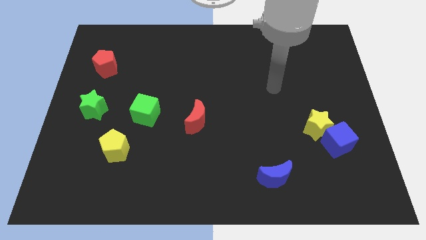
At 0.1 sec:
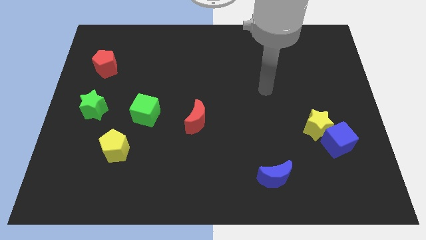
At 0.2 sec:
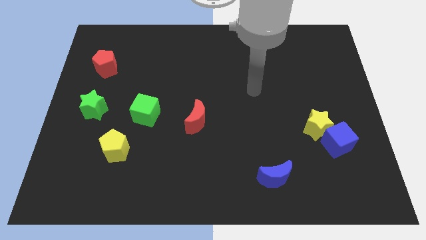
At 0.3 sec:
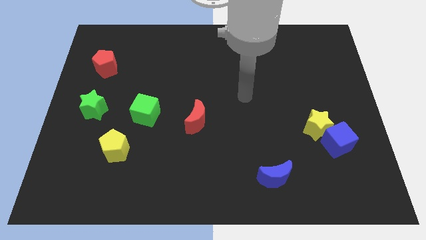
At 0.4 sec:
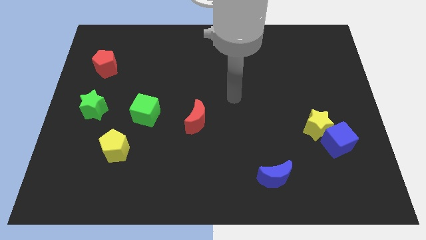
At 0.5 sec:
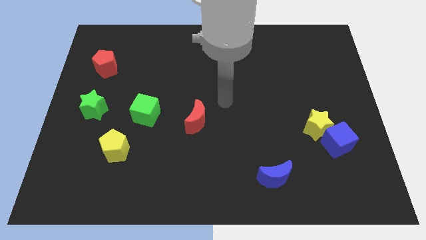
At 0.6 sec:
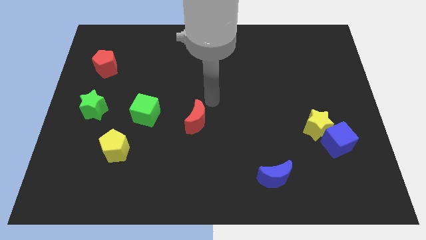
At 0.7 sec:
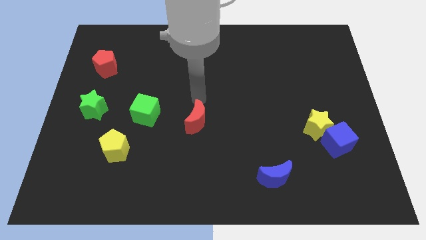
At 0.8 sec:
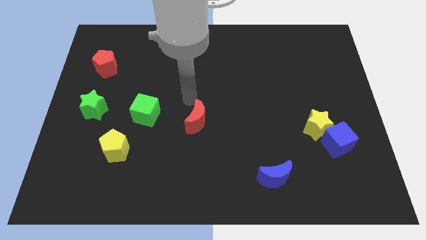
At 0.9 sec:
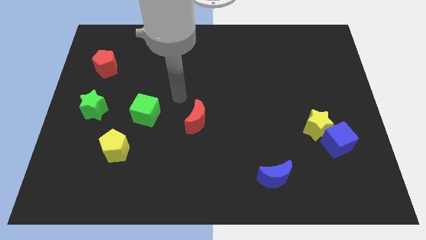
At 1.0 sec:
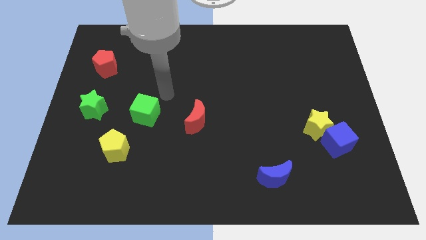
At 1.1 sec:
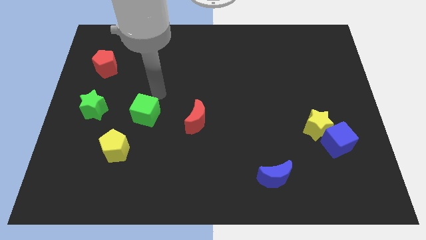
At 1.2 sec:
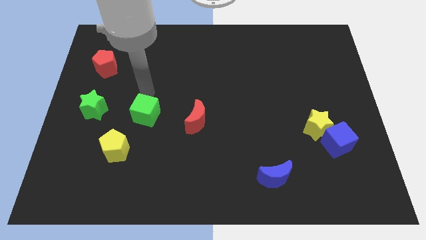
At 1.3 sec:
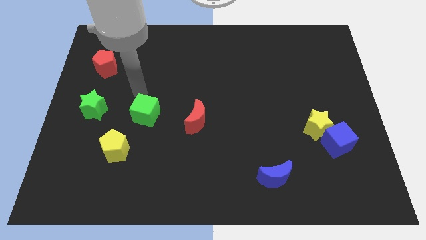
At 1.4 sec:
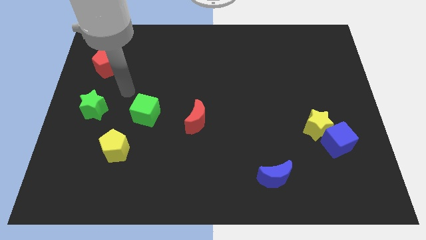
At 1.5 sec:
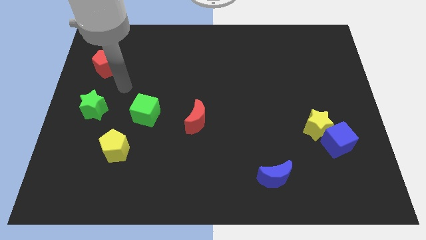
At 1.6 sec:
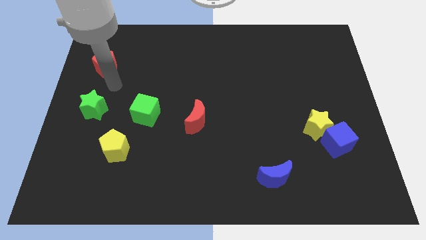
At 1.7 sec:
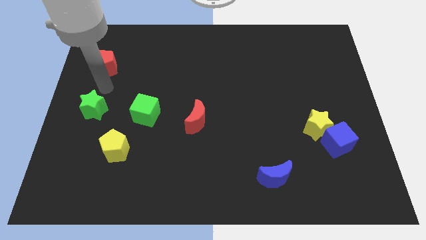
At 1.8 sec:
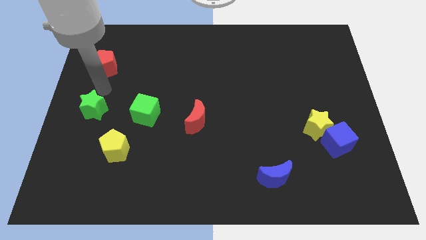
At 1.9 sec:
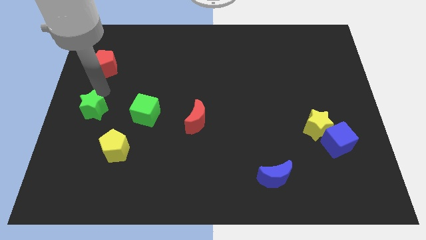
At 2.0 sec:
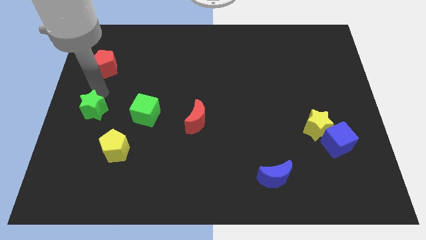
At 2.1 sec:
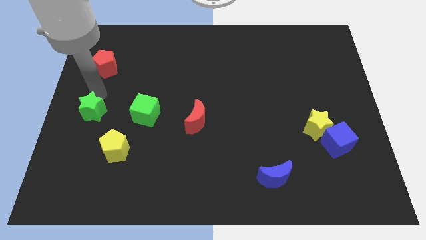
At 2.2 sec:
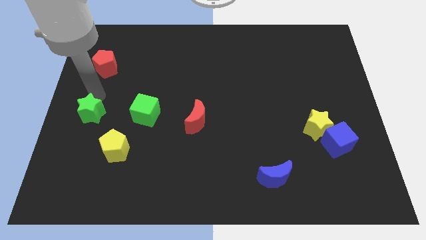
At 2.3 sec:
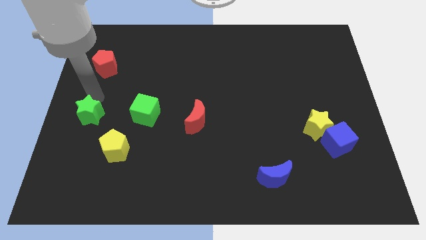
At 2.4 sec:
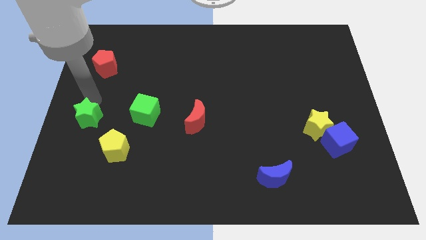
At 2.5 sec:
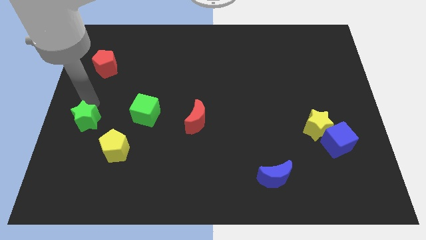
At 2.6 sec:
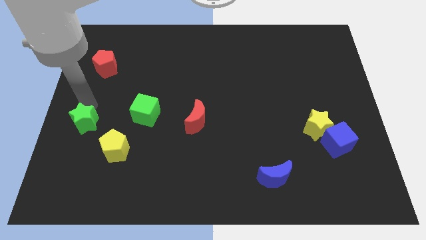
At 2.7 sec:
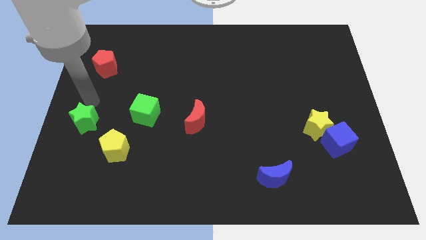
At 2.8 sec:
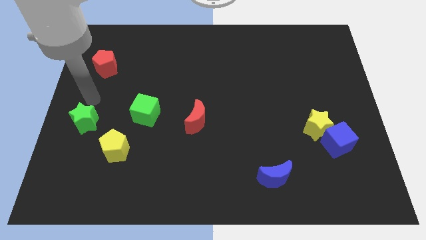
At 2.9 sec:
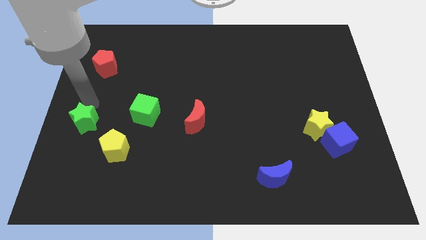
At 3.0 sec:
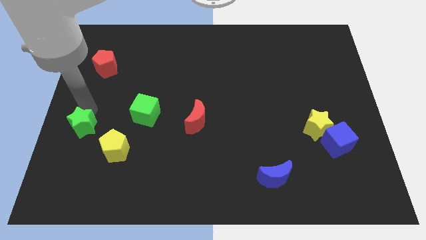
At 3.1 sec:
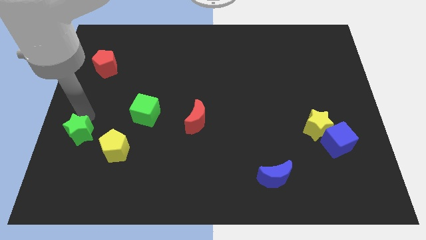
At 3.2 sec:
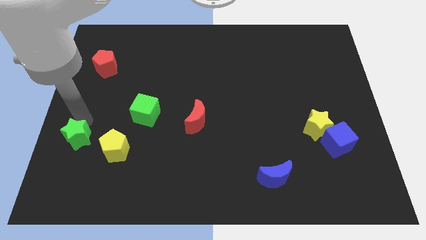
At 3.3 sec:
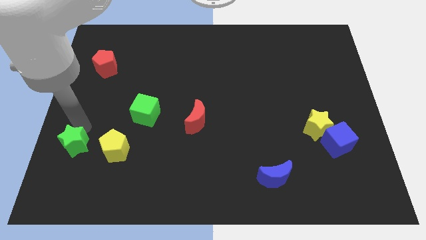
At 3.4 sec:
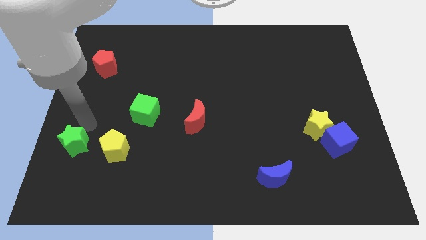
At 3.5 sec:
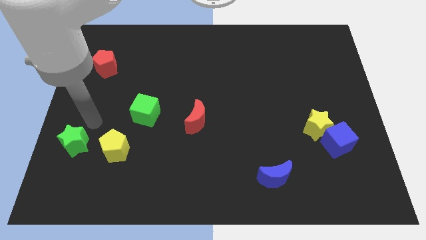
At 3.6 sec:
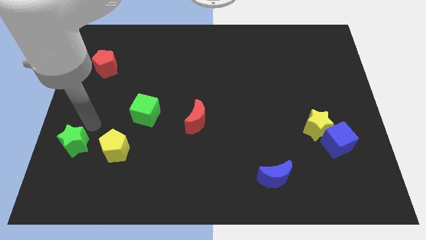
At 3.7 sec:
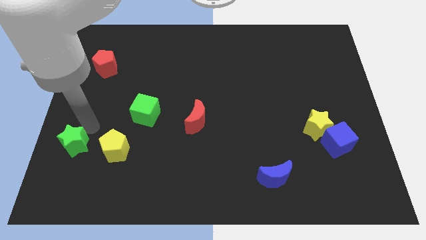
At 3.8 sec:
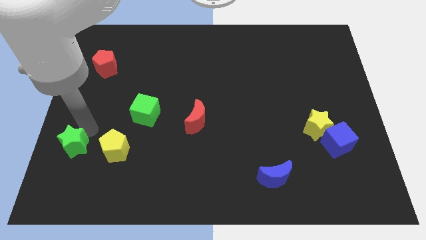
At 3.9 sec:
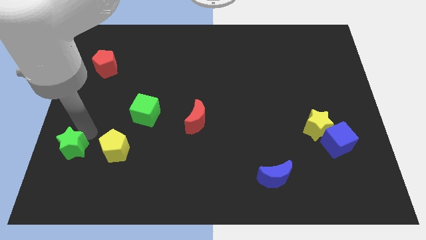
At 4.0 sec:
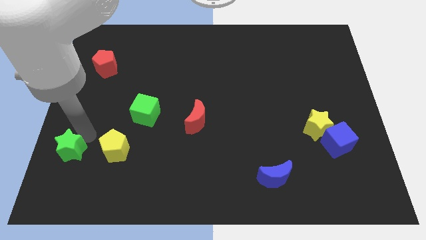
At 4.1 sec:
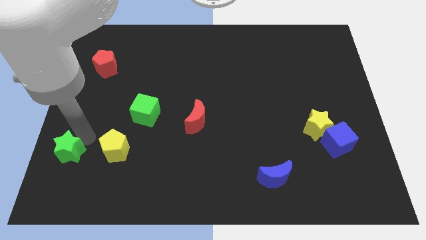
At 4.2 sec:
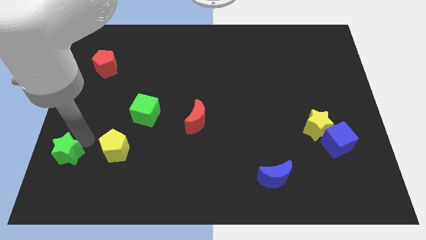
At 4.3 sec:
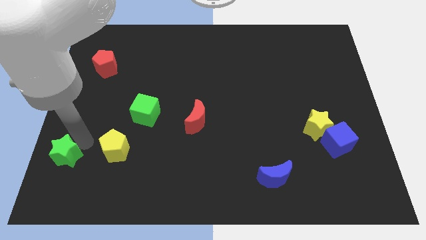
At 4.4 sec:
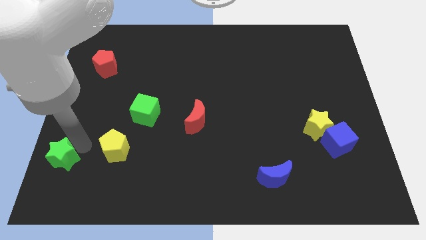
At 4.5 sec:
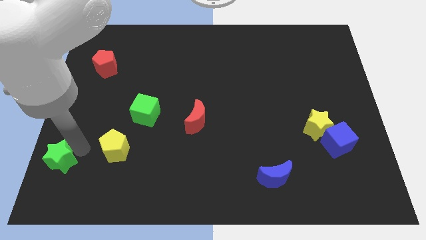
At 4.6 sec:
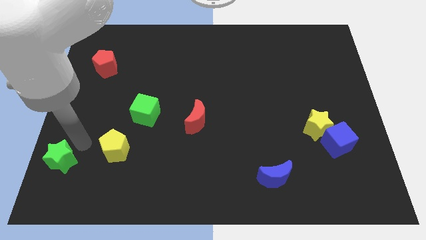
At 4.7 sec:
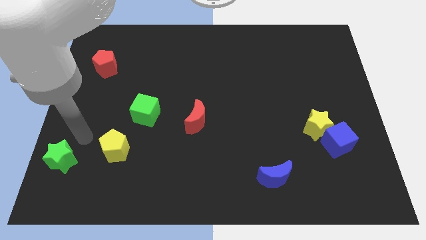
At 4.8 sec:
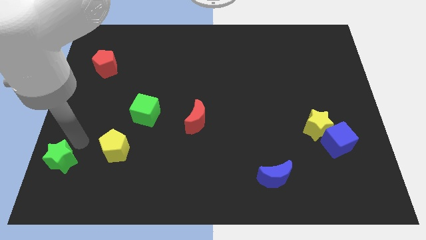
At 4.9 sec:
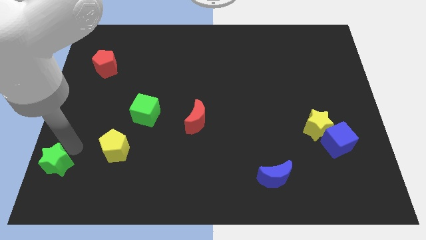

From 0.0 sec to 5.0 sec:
push the green star to the lower left corner

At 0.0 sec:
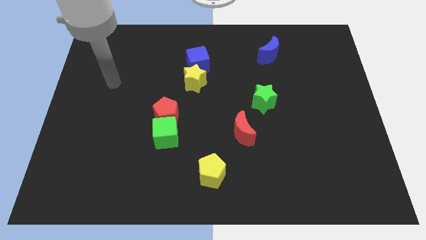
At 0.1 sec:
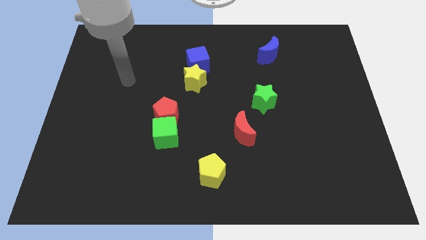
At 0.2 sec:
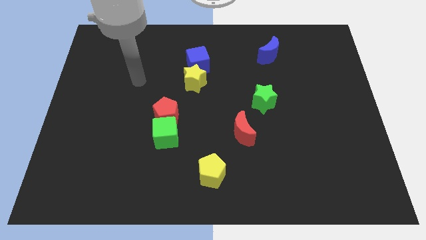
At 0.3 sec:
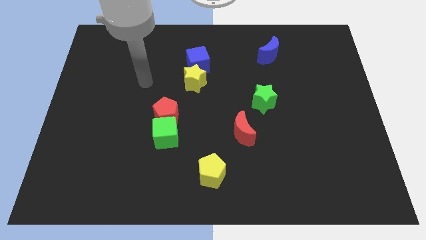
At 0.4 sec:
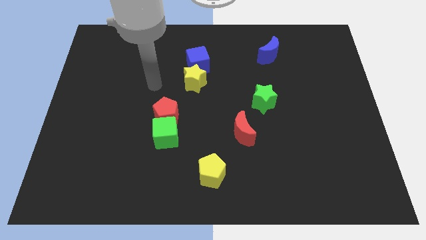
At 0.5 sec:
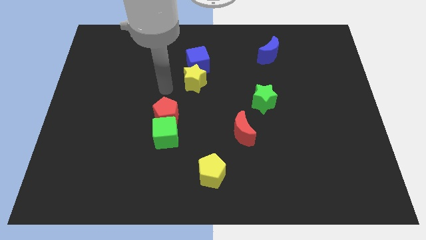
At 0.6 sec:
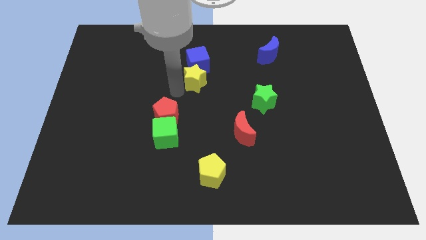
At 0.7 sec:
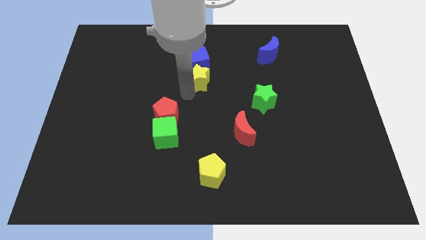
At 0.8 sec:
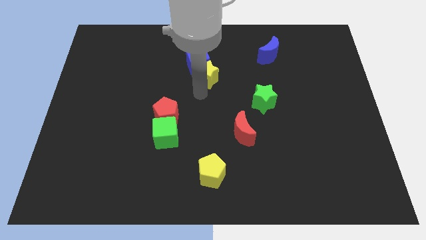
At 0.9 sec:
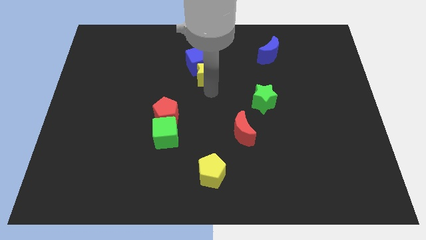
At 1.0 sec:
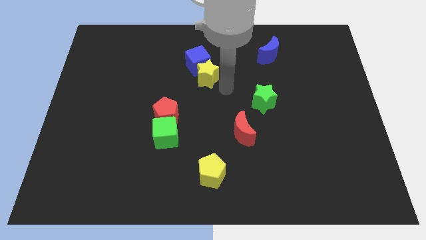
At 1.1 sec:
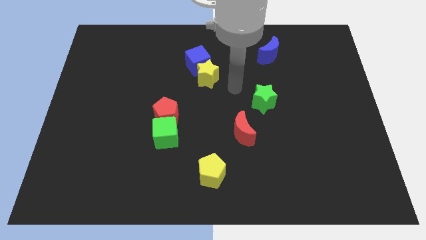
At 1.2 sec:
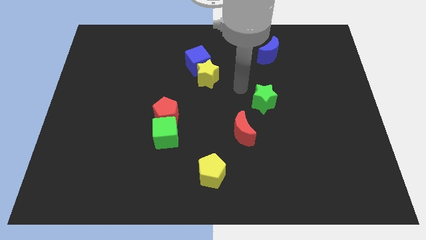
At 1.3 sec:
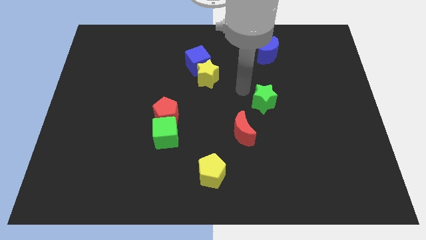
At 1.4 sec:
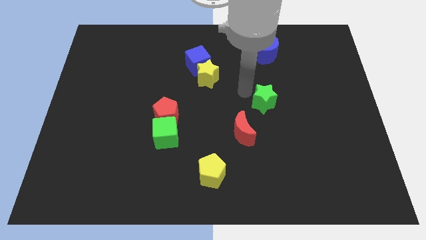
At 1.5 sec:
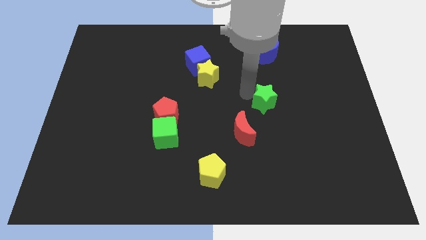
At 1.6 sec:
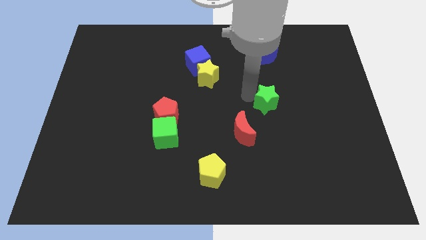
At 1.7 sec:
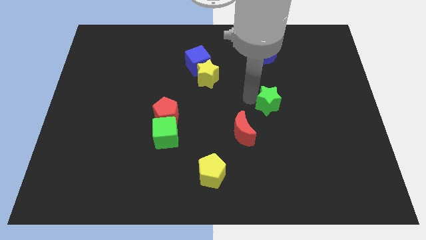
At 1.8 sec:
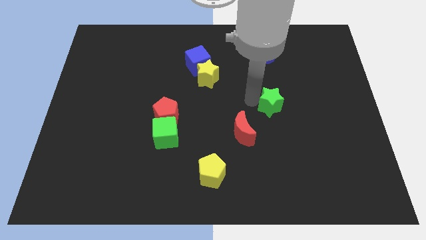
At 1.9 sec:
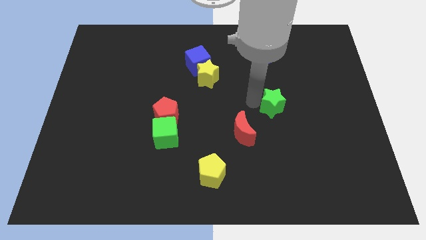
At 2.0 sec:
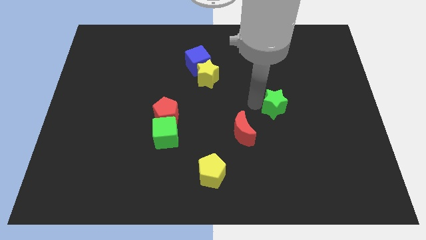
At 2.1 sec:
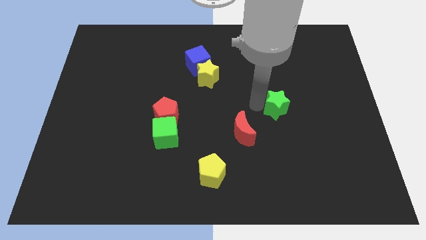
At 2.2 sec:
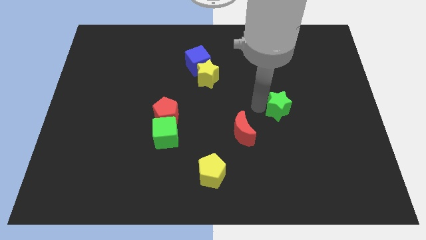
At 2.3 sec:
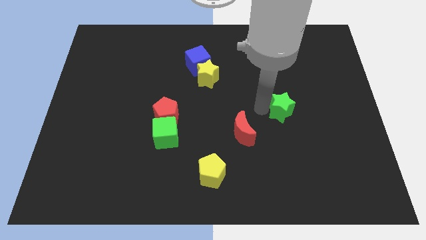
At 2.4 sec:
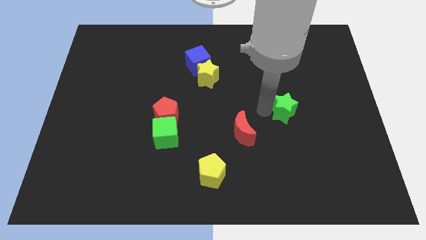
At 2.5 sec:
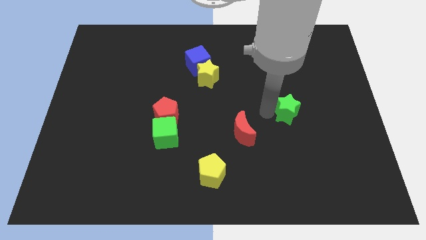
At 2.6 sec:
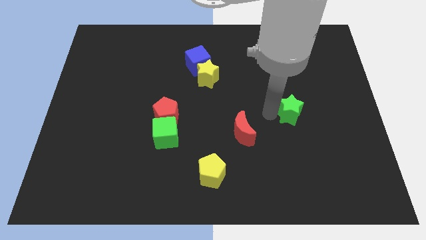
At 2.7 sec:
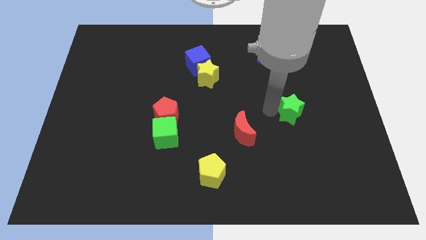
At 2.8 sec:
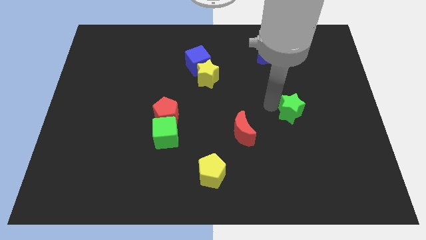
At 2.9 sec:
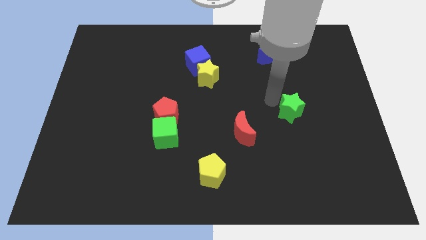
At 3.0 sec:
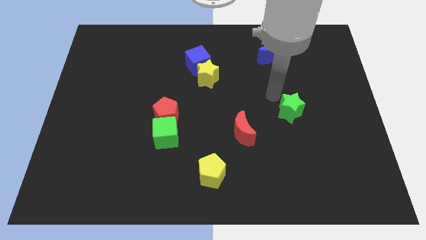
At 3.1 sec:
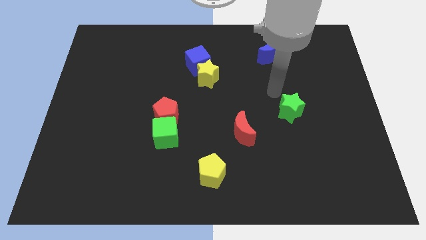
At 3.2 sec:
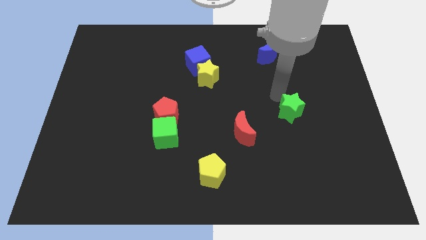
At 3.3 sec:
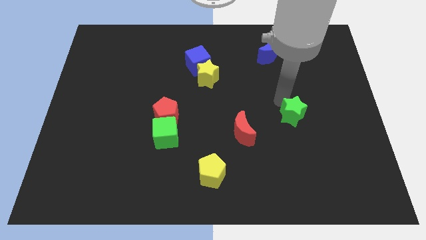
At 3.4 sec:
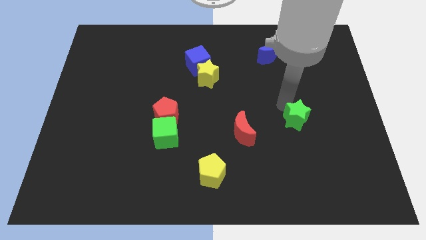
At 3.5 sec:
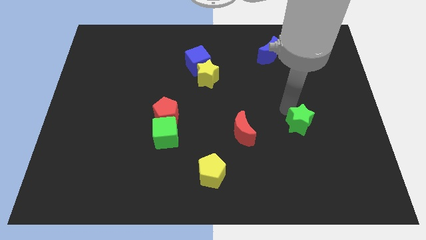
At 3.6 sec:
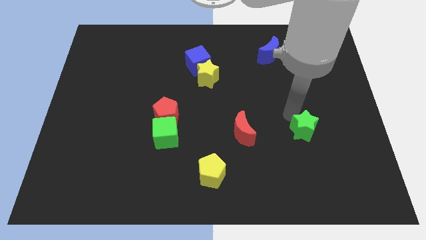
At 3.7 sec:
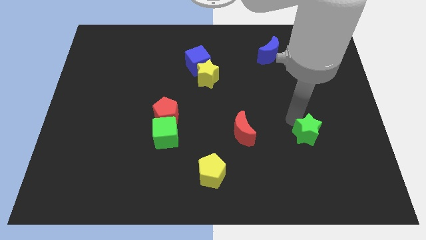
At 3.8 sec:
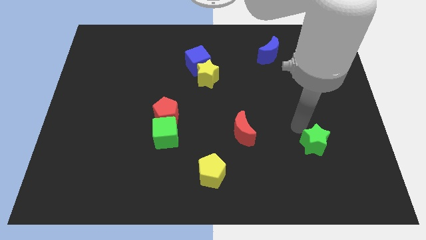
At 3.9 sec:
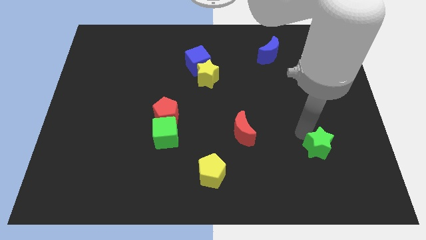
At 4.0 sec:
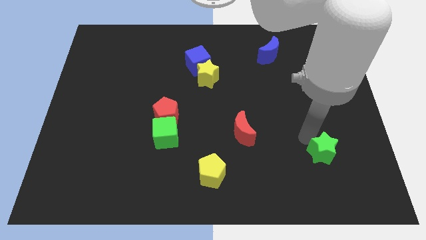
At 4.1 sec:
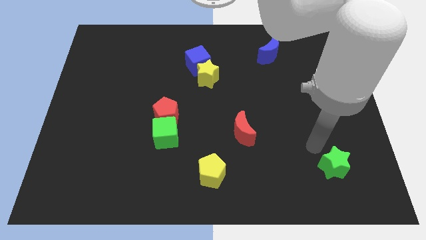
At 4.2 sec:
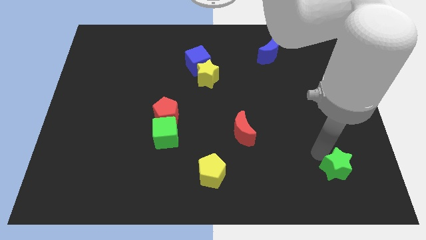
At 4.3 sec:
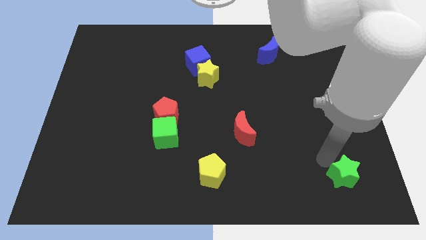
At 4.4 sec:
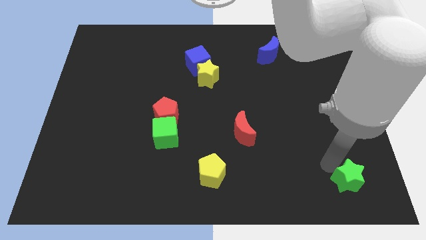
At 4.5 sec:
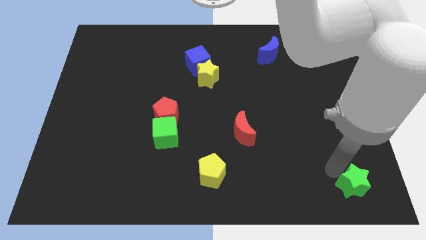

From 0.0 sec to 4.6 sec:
put the green star to the bottom right corner
